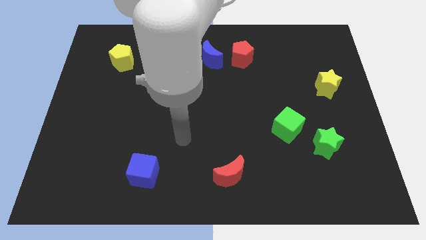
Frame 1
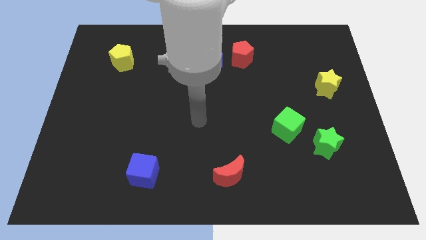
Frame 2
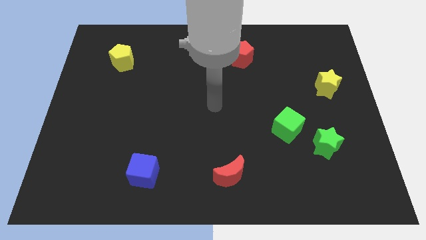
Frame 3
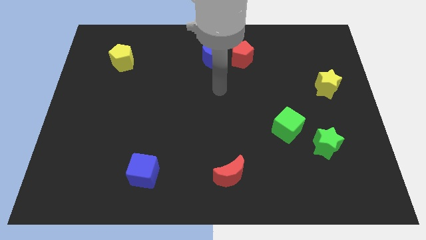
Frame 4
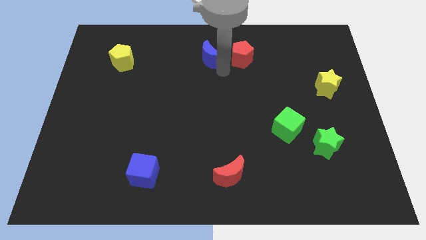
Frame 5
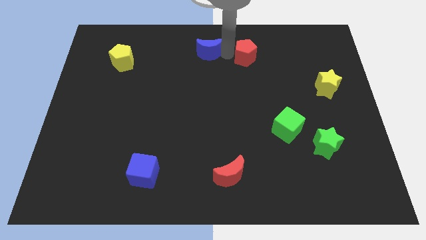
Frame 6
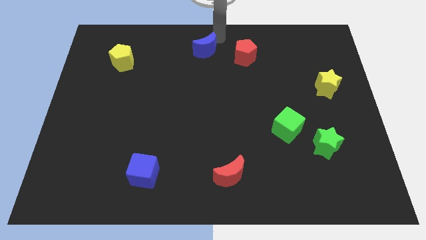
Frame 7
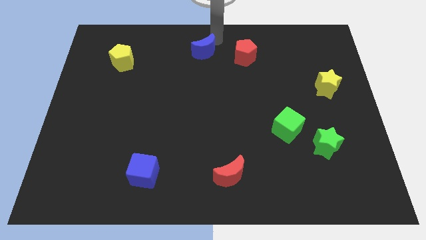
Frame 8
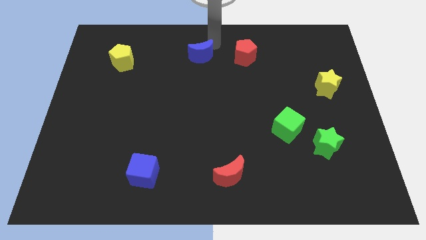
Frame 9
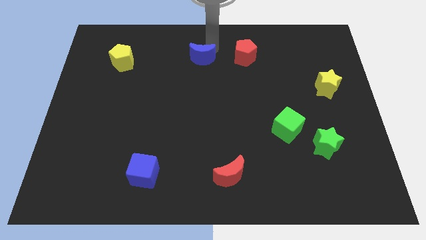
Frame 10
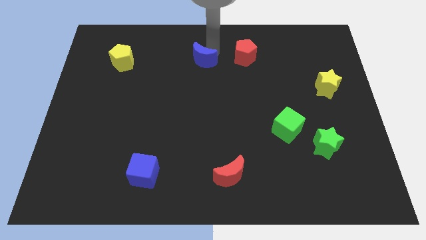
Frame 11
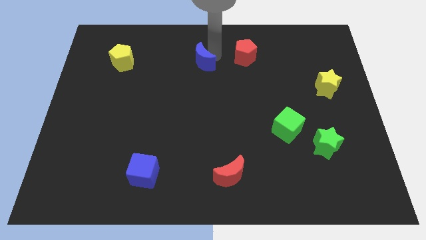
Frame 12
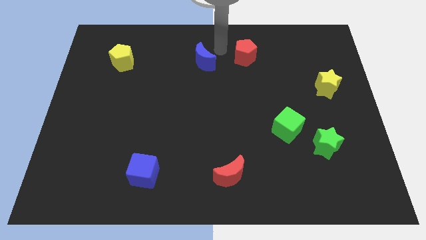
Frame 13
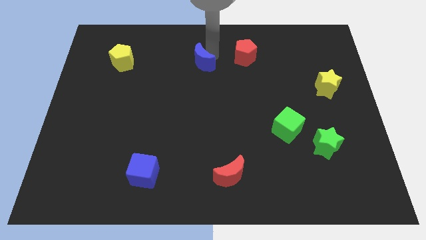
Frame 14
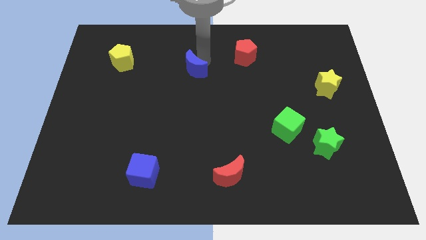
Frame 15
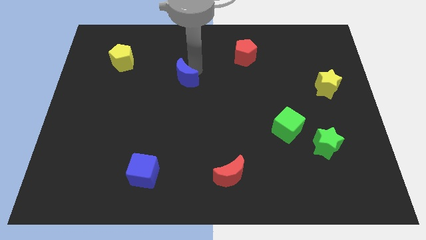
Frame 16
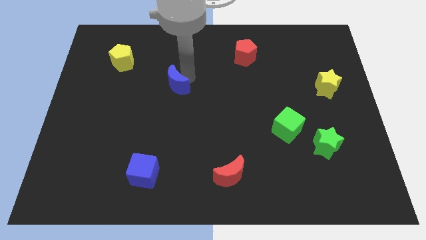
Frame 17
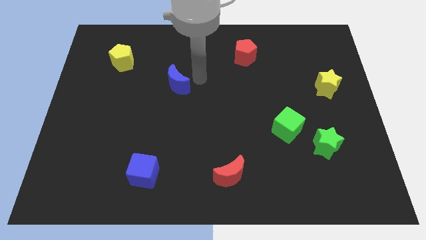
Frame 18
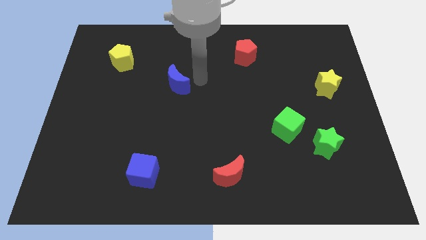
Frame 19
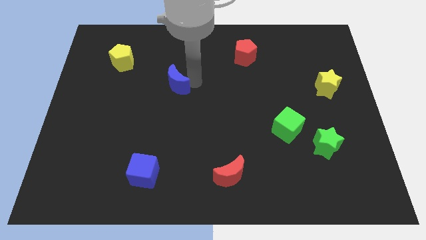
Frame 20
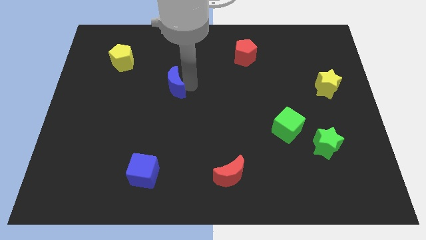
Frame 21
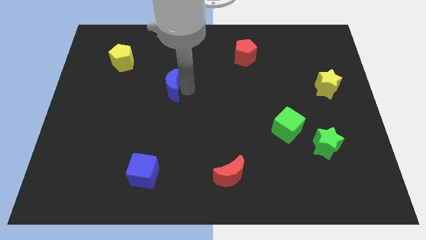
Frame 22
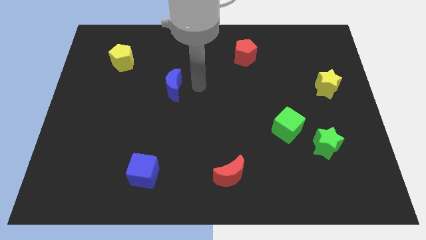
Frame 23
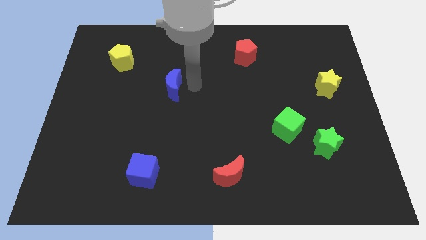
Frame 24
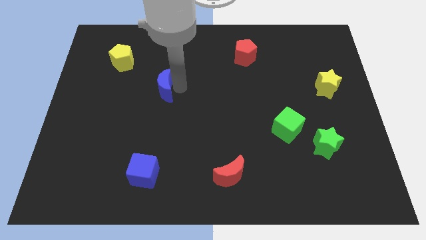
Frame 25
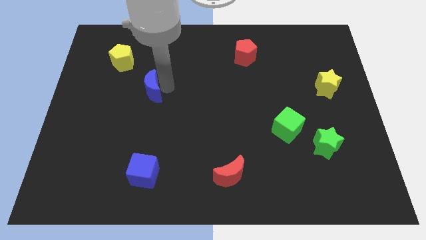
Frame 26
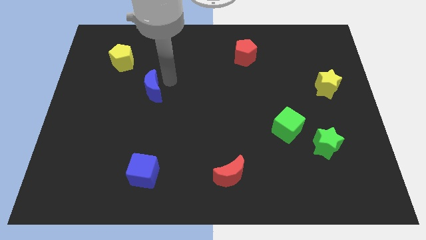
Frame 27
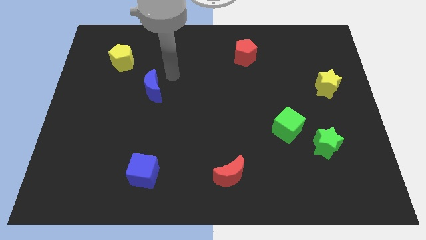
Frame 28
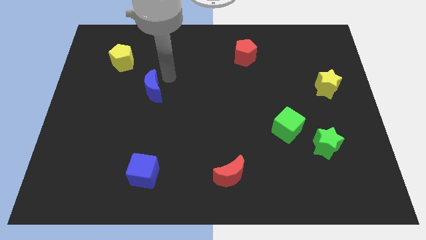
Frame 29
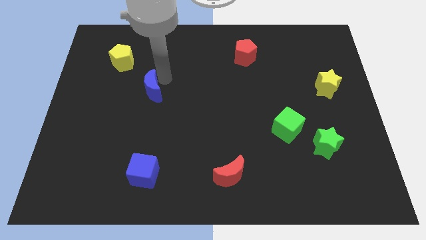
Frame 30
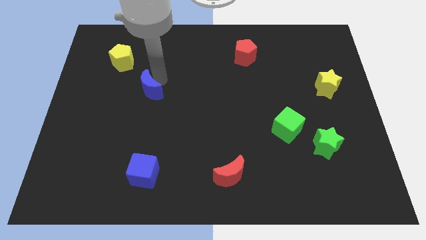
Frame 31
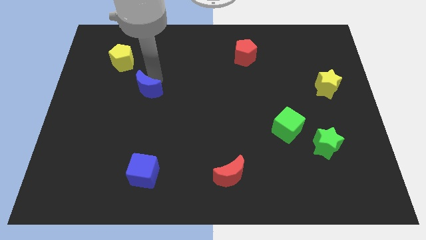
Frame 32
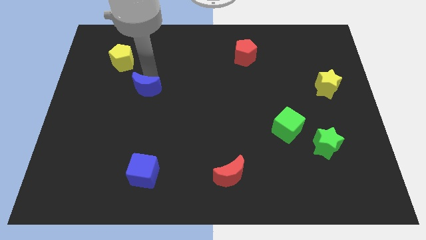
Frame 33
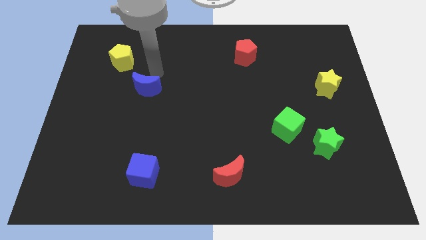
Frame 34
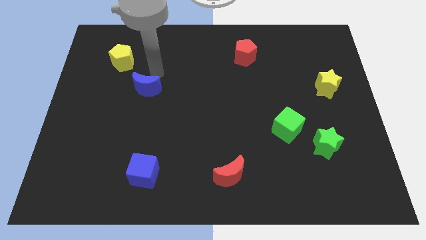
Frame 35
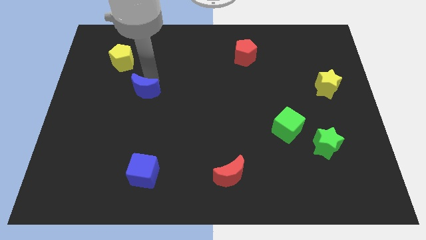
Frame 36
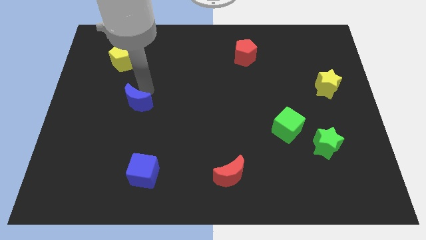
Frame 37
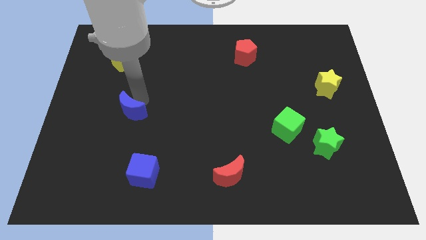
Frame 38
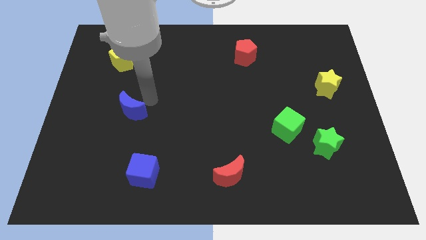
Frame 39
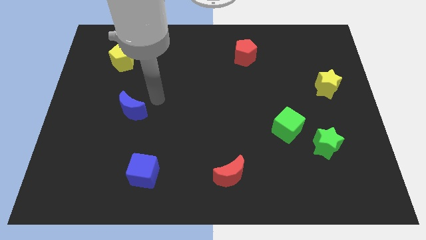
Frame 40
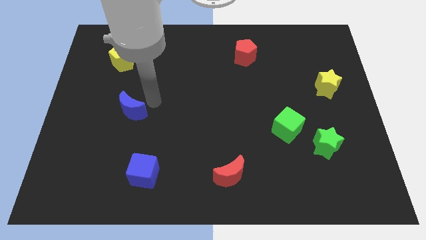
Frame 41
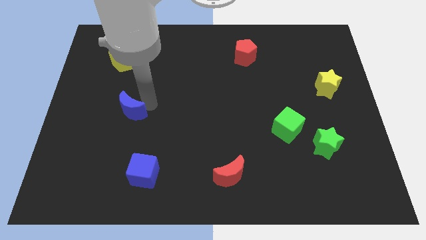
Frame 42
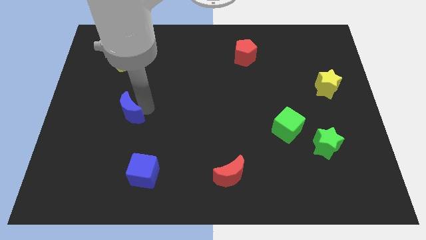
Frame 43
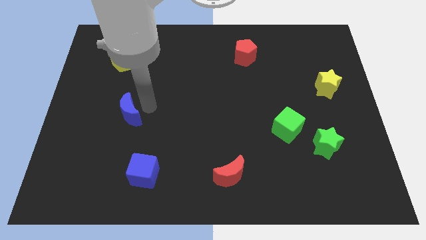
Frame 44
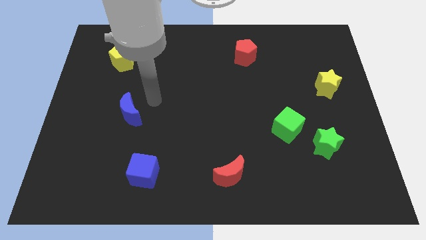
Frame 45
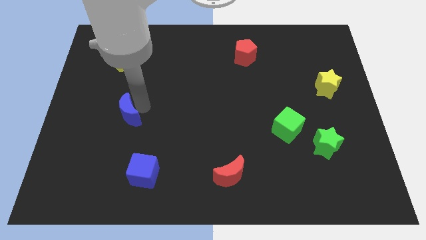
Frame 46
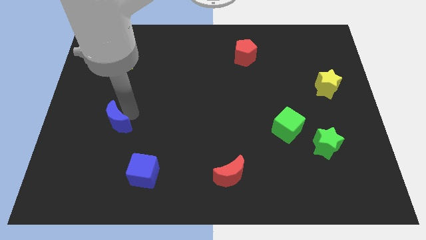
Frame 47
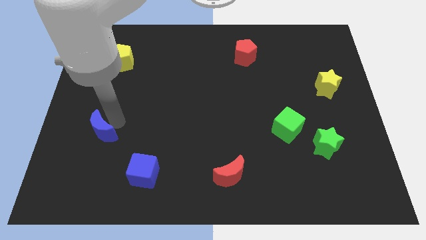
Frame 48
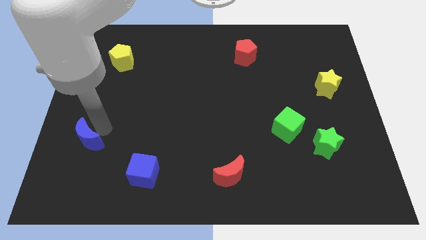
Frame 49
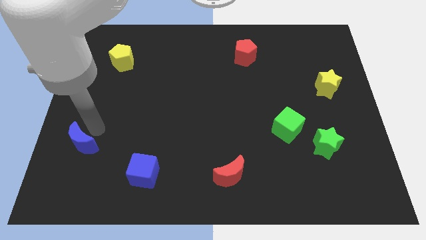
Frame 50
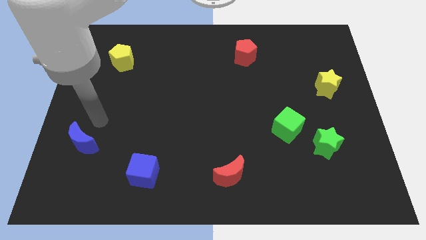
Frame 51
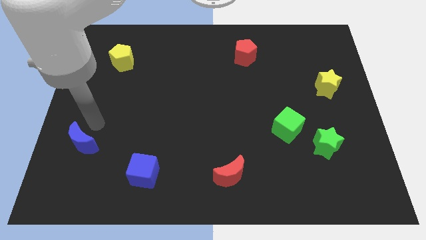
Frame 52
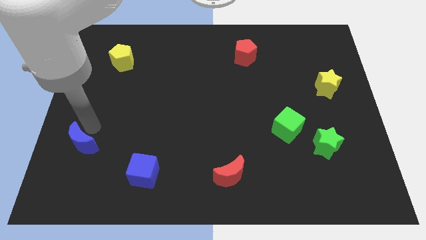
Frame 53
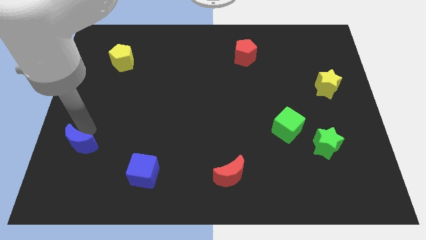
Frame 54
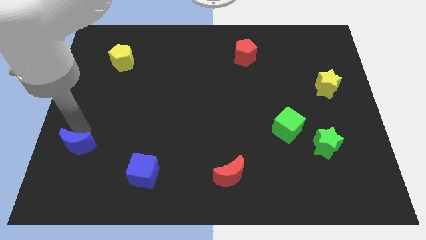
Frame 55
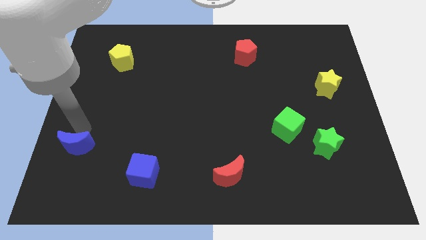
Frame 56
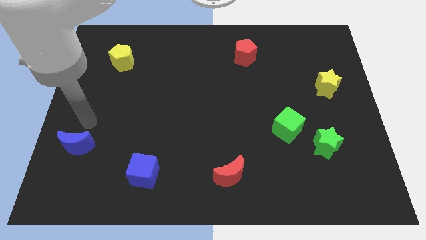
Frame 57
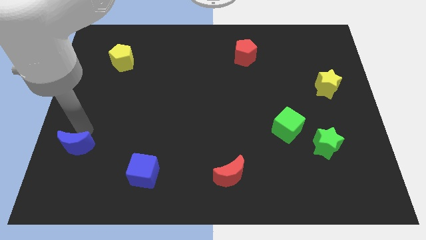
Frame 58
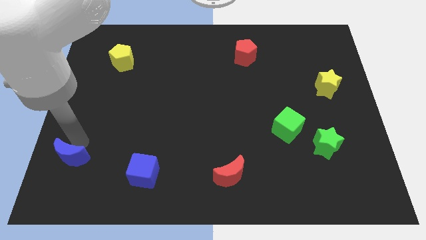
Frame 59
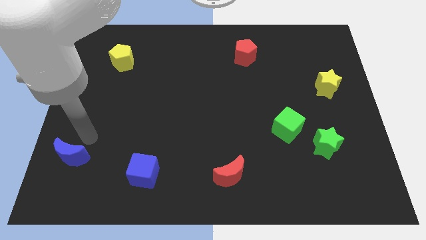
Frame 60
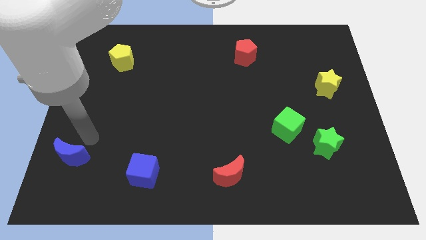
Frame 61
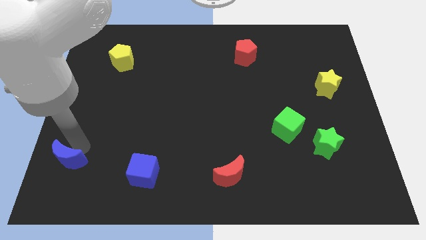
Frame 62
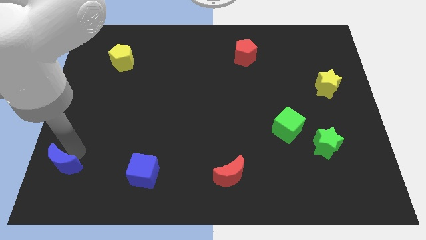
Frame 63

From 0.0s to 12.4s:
put the blue moon to the bottom left corner

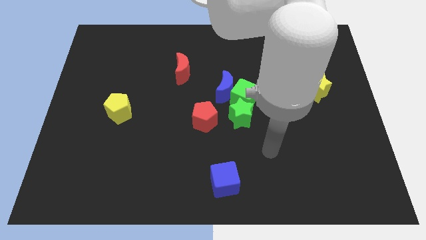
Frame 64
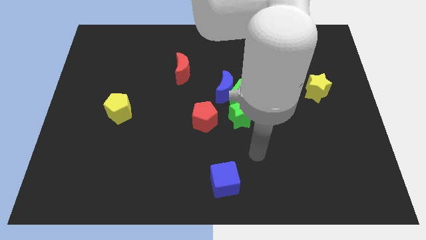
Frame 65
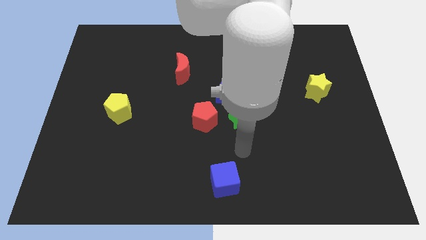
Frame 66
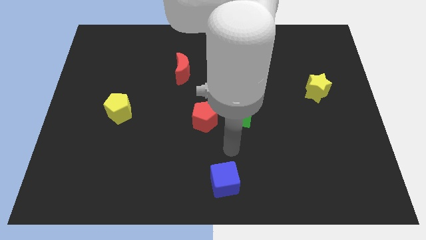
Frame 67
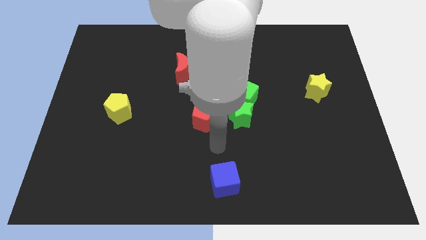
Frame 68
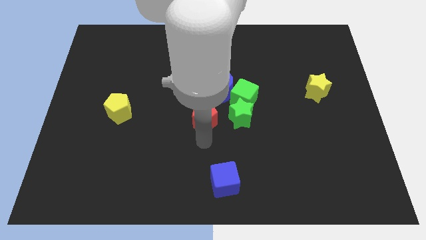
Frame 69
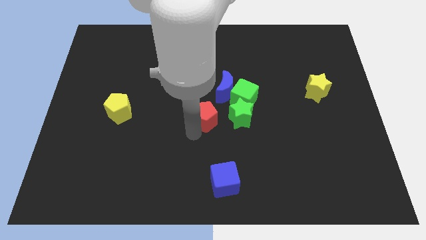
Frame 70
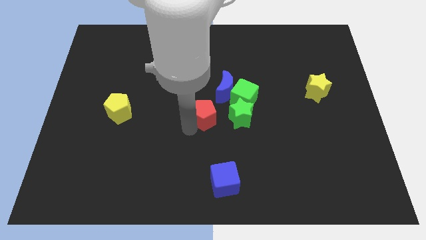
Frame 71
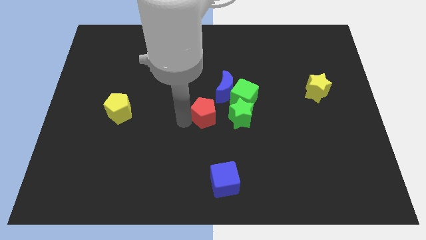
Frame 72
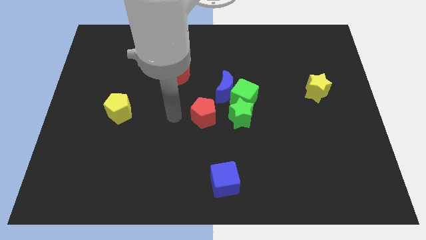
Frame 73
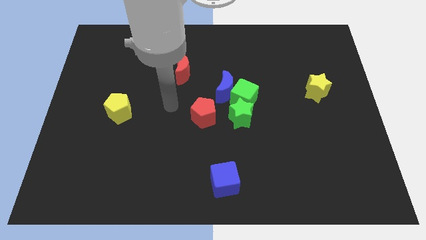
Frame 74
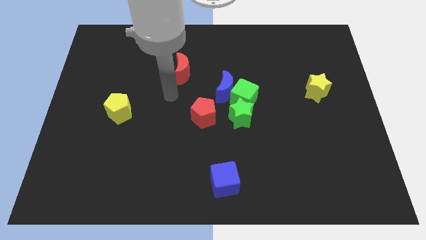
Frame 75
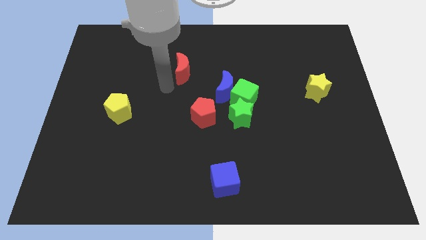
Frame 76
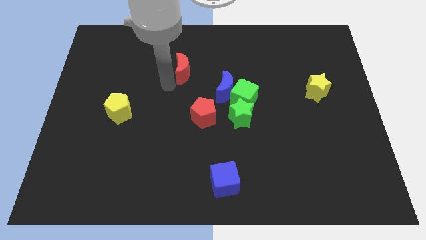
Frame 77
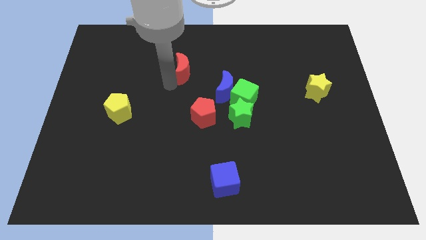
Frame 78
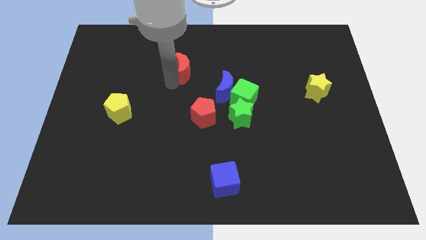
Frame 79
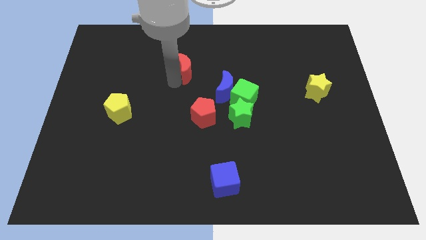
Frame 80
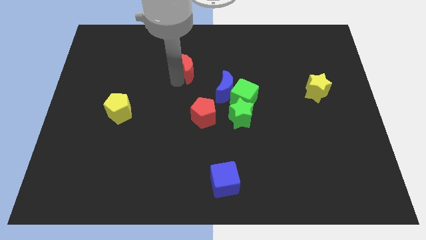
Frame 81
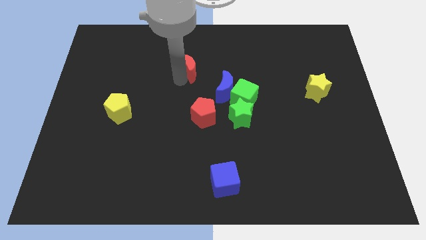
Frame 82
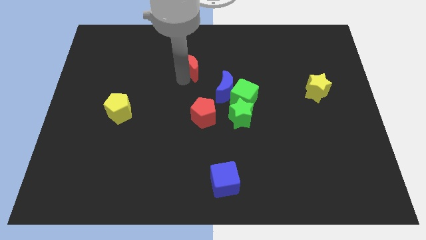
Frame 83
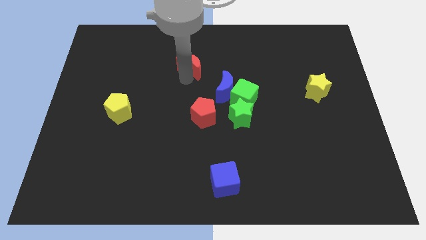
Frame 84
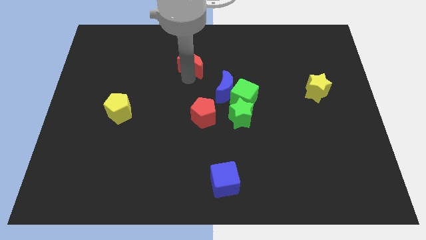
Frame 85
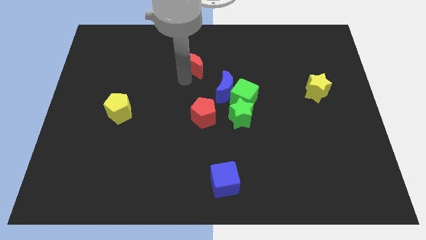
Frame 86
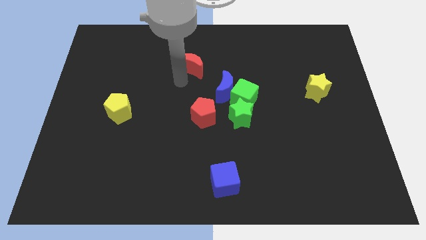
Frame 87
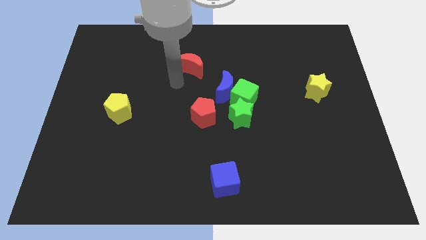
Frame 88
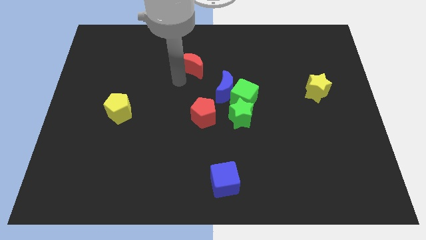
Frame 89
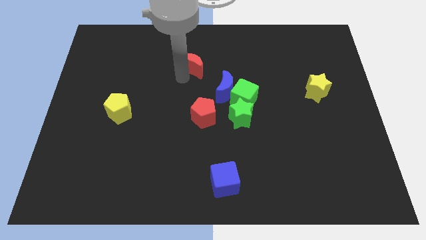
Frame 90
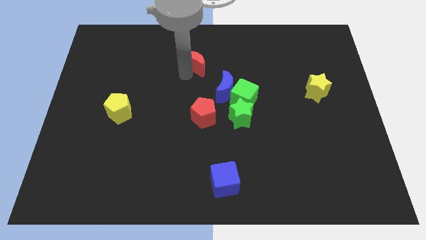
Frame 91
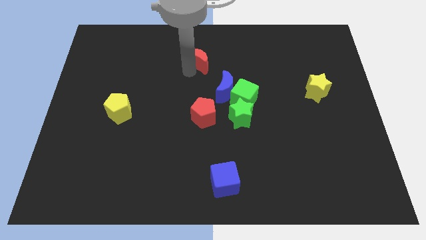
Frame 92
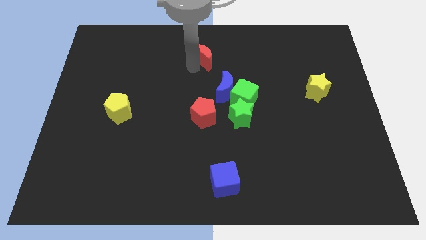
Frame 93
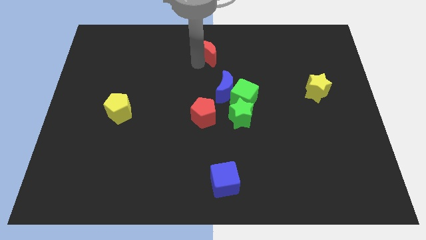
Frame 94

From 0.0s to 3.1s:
slide the red moon to the top
